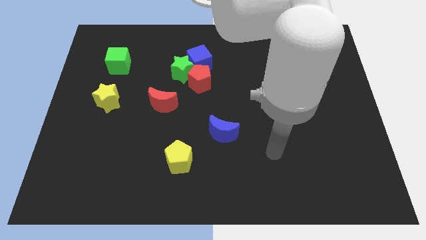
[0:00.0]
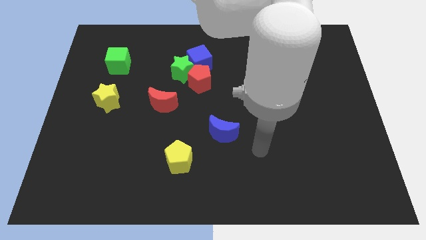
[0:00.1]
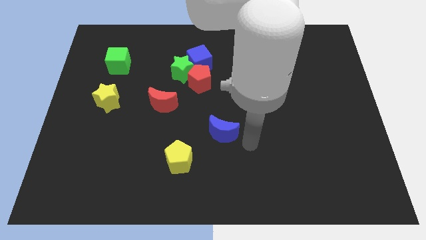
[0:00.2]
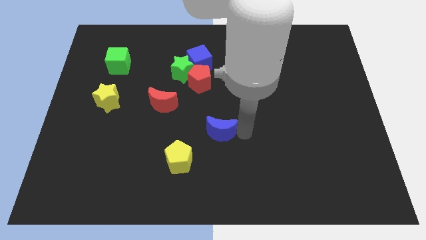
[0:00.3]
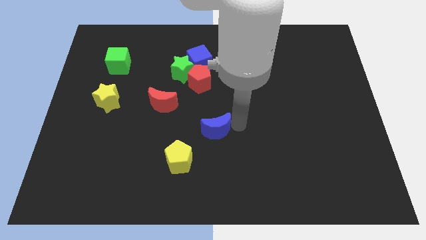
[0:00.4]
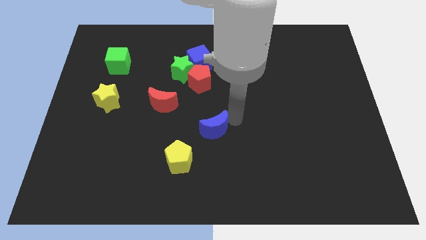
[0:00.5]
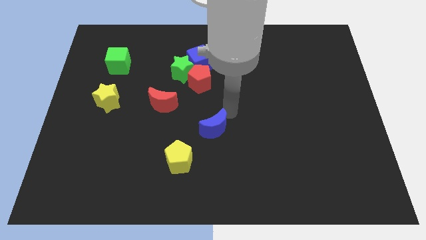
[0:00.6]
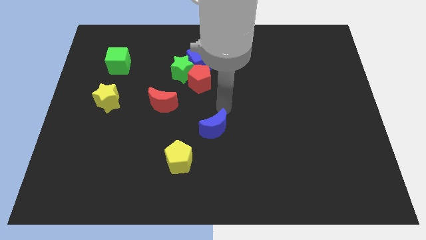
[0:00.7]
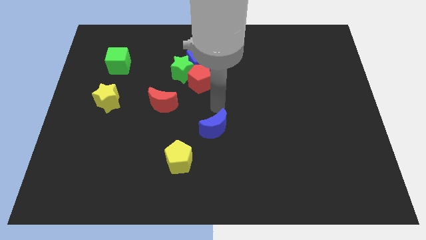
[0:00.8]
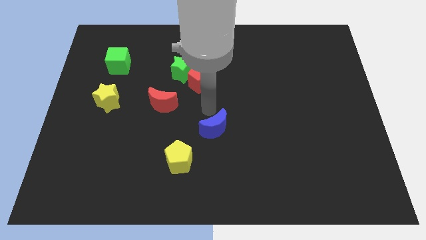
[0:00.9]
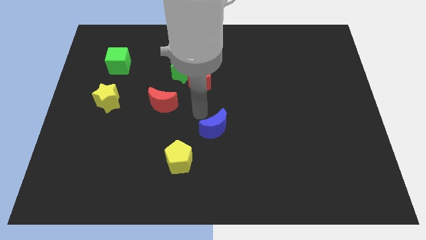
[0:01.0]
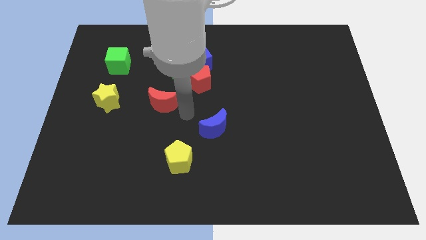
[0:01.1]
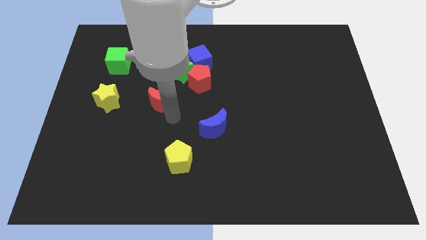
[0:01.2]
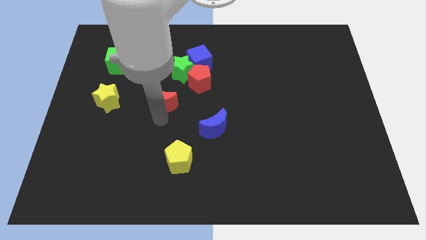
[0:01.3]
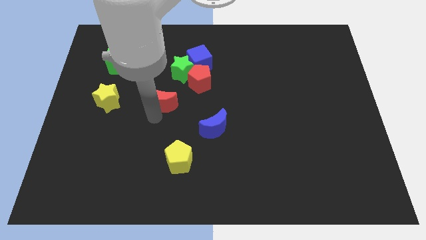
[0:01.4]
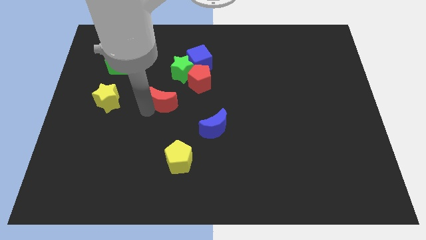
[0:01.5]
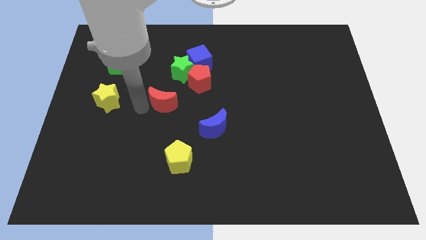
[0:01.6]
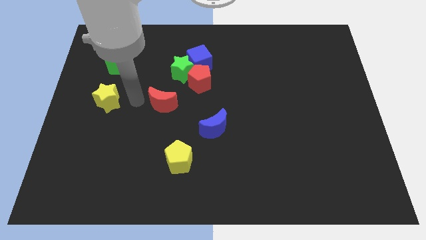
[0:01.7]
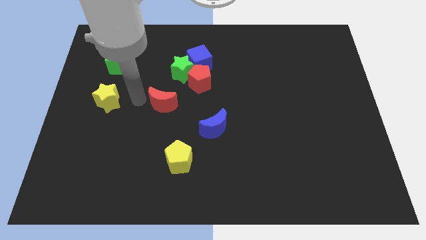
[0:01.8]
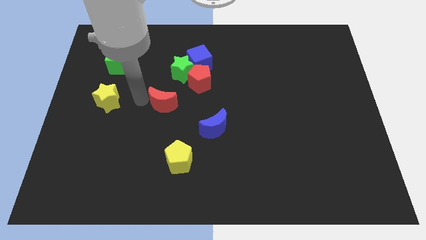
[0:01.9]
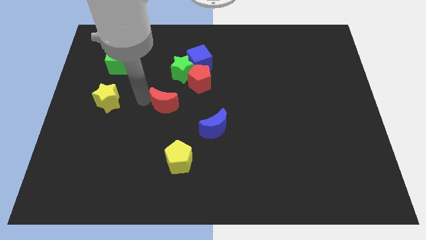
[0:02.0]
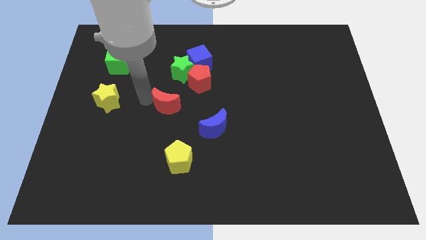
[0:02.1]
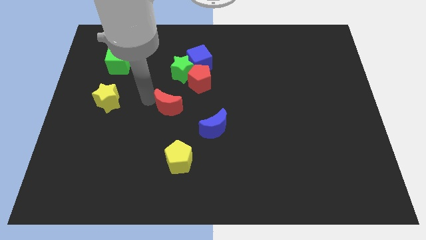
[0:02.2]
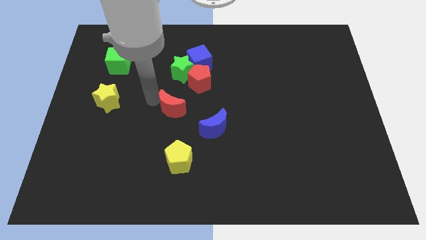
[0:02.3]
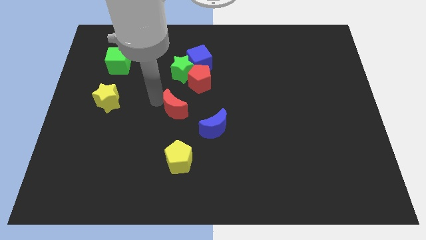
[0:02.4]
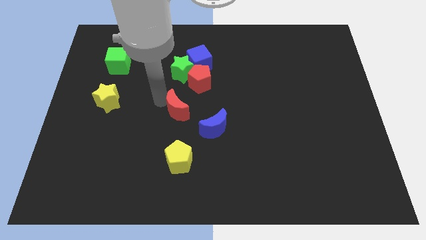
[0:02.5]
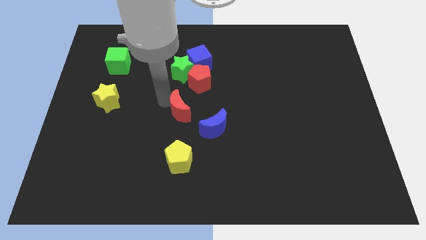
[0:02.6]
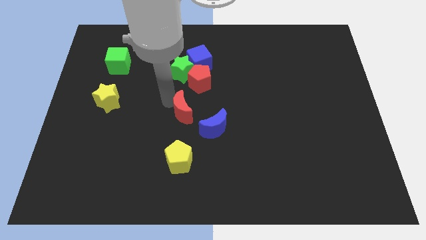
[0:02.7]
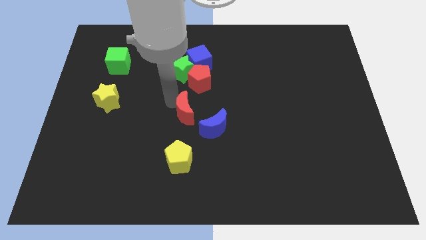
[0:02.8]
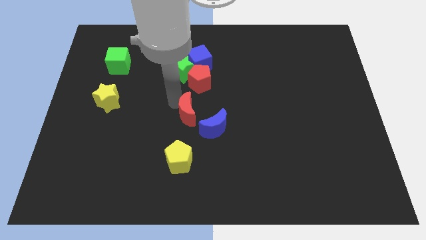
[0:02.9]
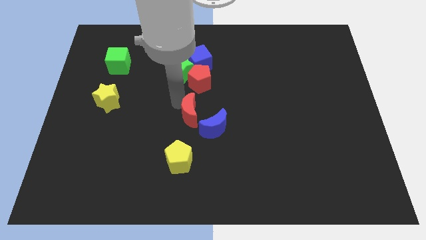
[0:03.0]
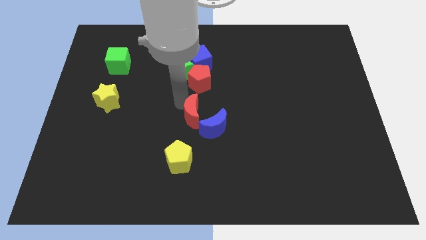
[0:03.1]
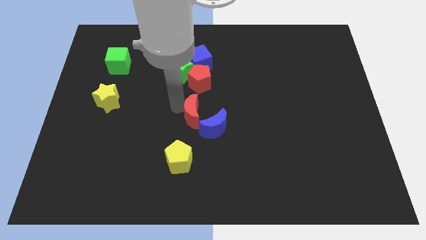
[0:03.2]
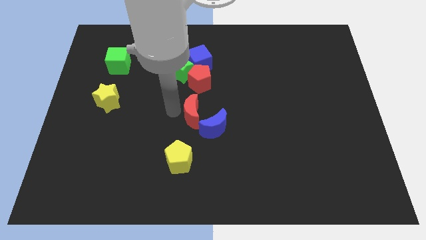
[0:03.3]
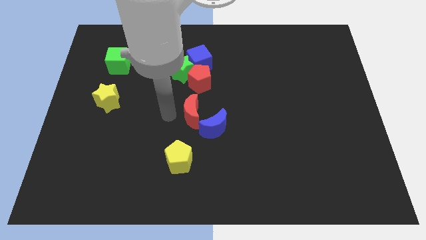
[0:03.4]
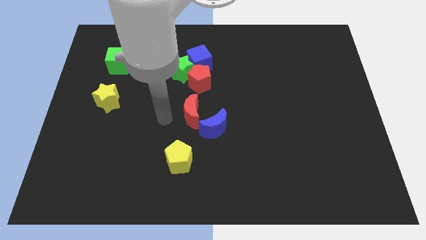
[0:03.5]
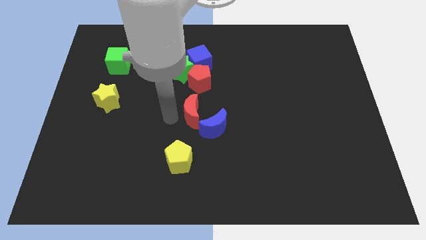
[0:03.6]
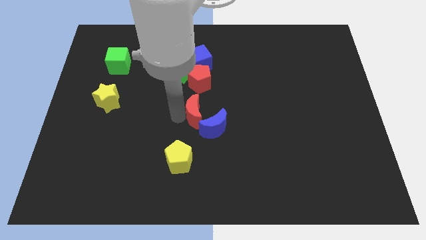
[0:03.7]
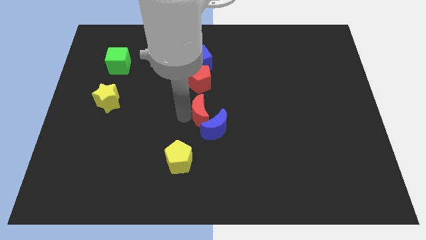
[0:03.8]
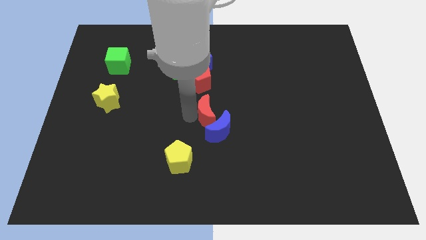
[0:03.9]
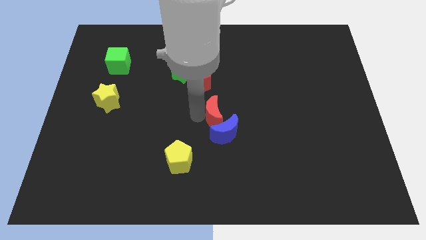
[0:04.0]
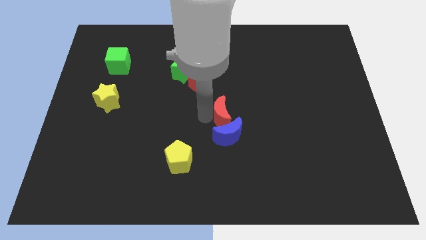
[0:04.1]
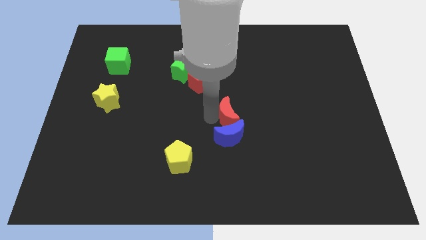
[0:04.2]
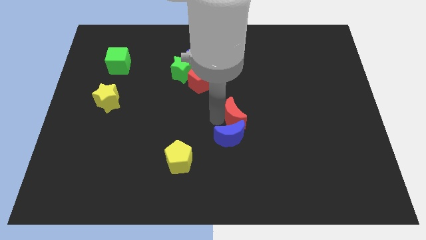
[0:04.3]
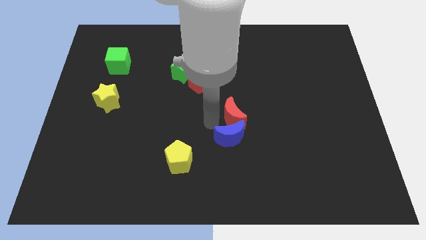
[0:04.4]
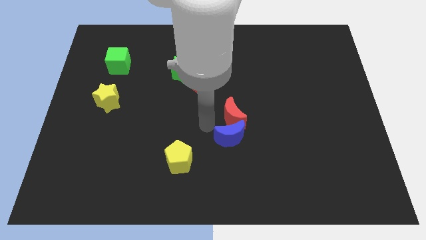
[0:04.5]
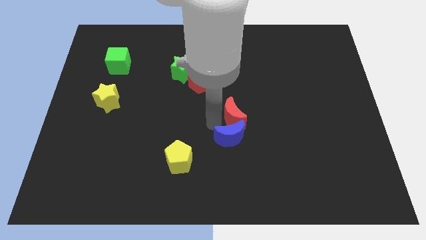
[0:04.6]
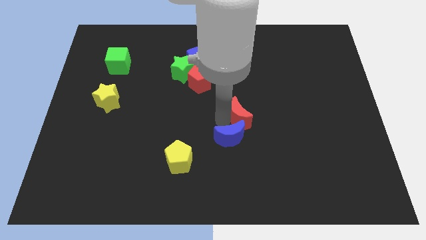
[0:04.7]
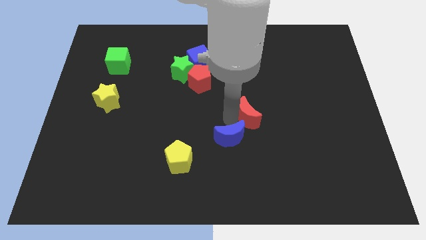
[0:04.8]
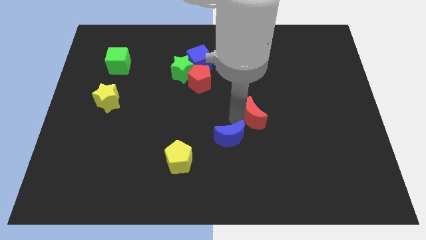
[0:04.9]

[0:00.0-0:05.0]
move the red moon right

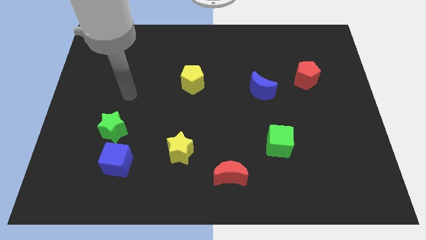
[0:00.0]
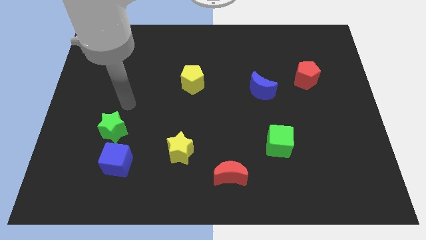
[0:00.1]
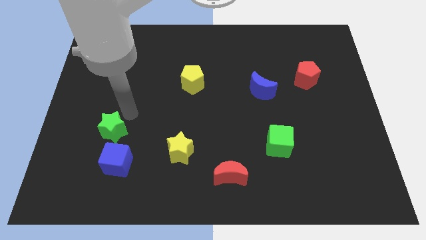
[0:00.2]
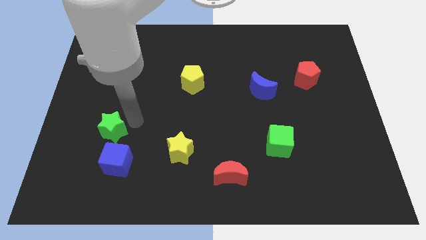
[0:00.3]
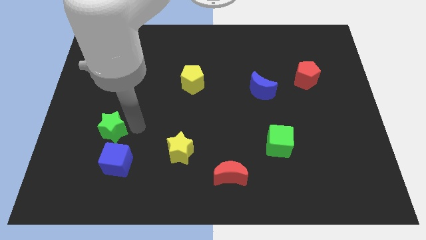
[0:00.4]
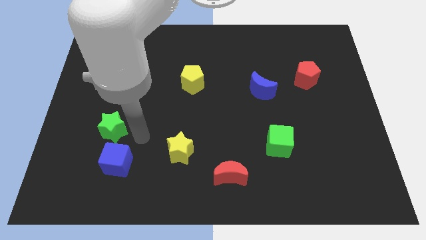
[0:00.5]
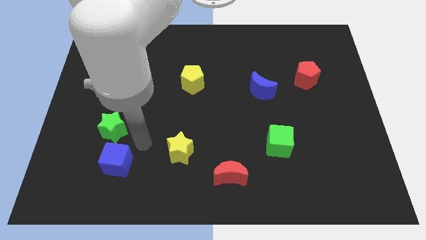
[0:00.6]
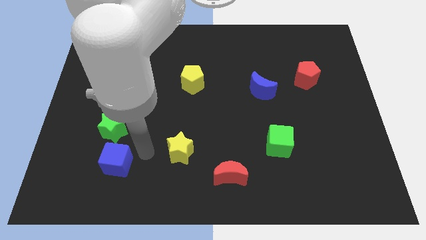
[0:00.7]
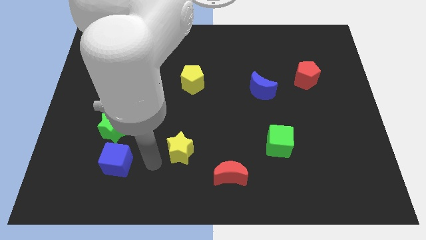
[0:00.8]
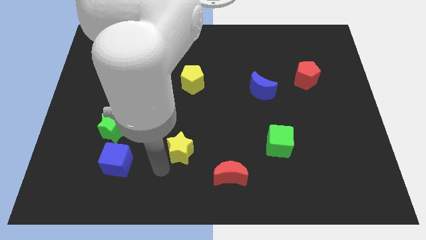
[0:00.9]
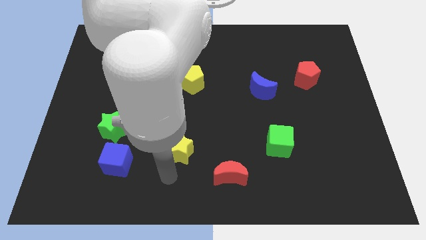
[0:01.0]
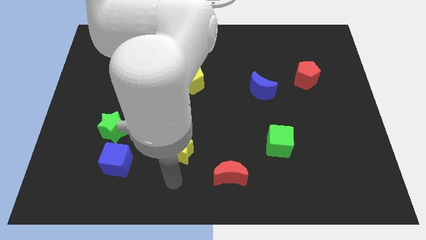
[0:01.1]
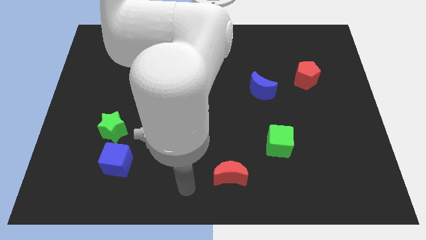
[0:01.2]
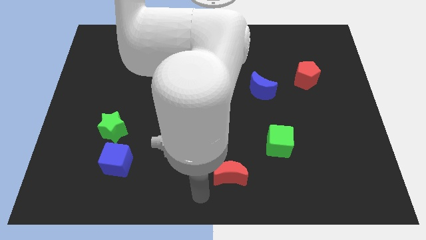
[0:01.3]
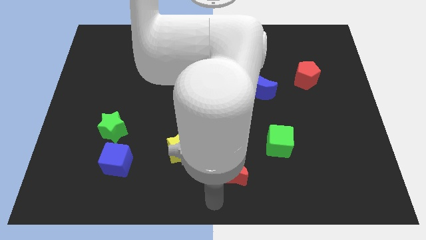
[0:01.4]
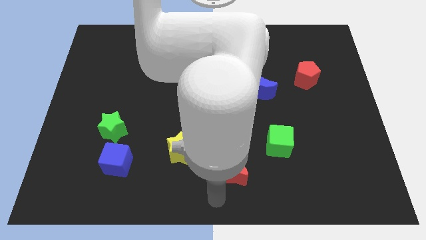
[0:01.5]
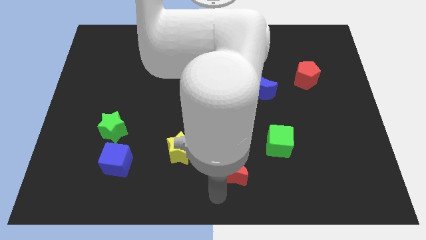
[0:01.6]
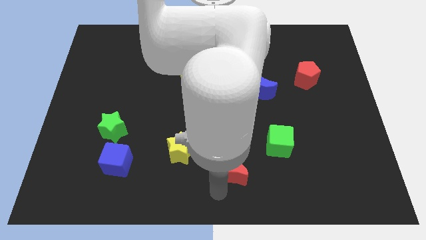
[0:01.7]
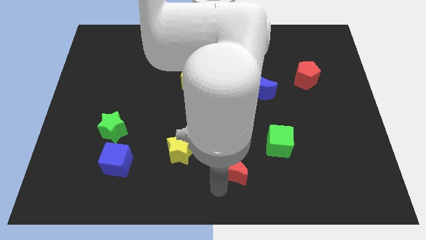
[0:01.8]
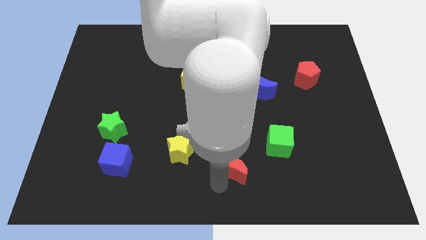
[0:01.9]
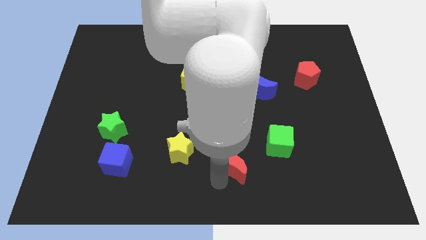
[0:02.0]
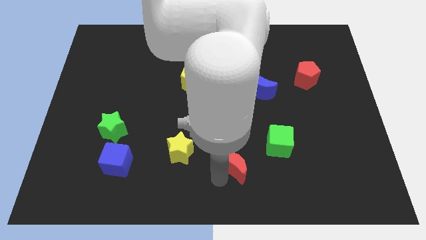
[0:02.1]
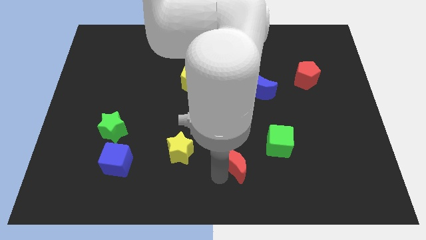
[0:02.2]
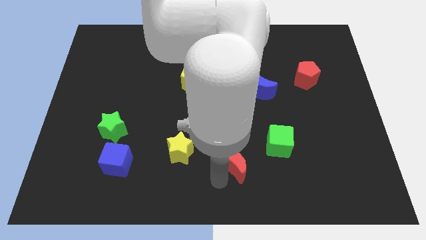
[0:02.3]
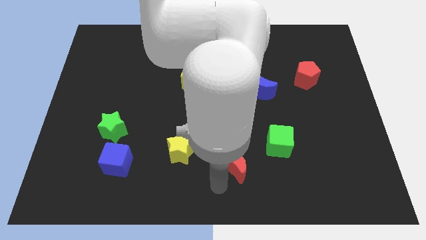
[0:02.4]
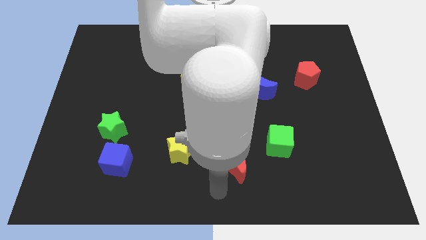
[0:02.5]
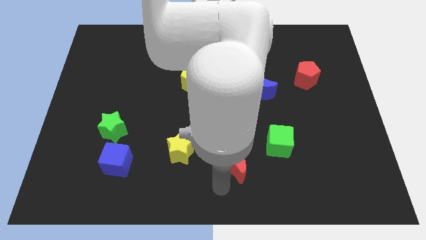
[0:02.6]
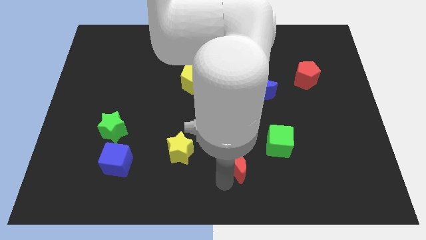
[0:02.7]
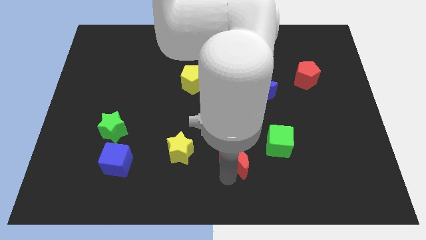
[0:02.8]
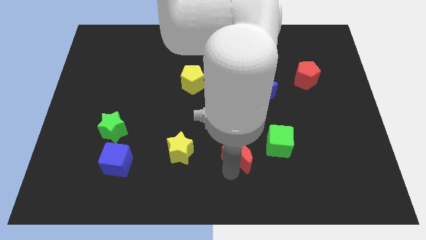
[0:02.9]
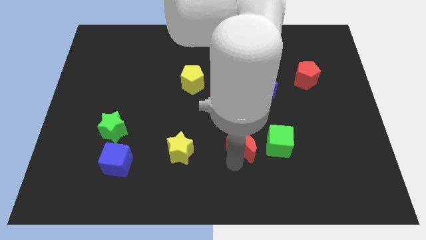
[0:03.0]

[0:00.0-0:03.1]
slide the red moon diagonally upwards and right somewhat

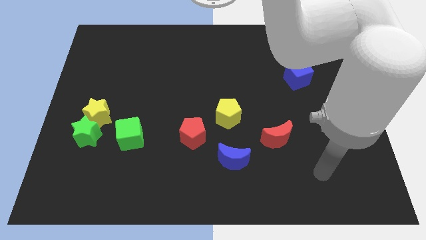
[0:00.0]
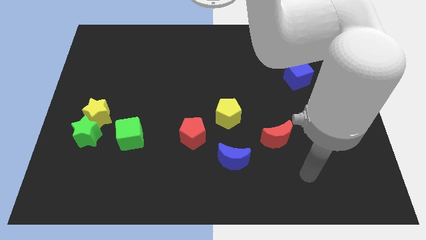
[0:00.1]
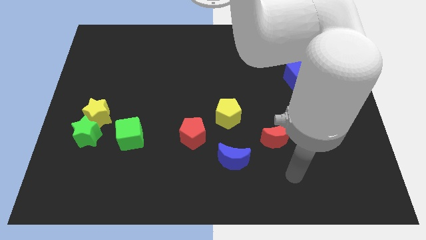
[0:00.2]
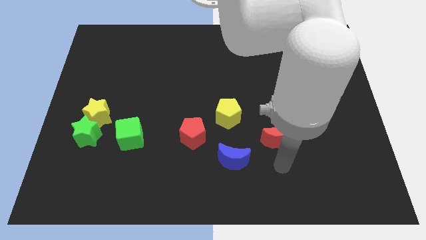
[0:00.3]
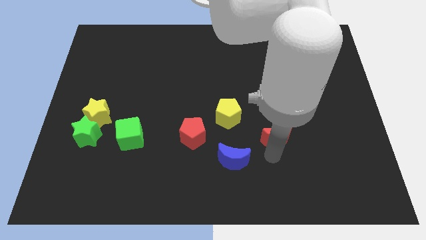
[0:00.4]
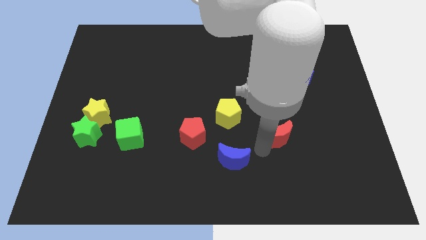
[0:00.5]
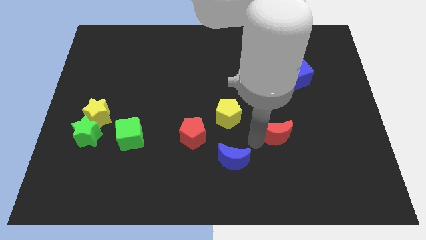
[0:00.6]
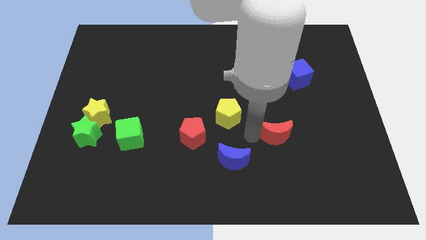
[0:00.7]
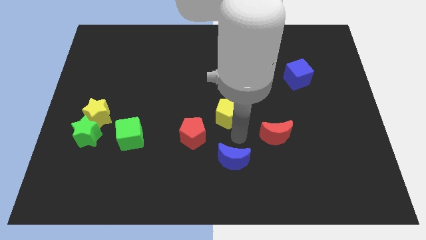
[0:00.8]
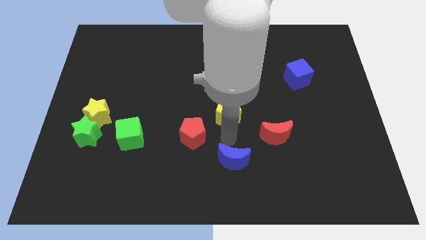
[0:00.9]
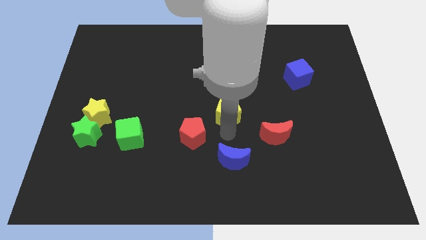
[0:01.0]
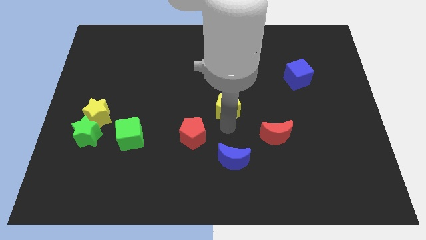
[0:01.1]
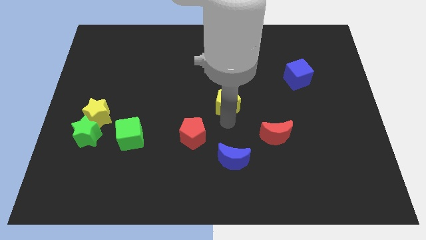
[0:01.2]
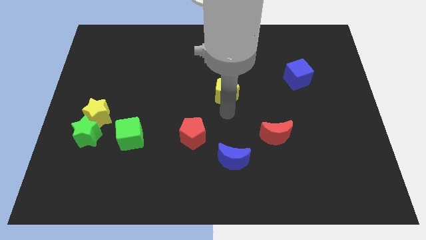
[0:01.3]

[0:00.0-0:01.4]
slightly slide the yellow pentagon up
